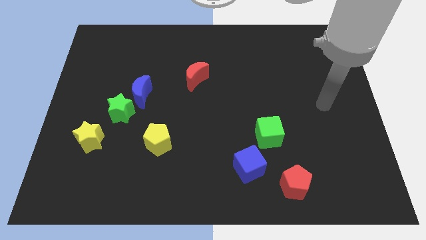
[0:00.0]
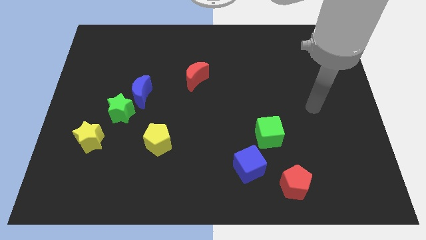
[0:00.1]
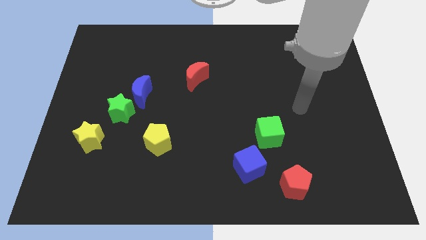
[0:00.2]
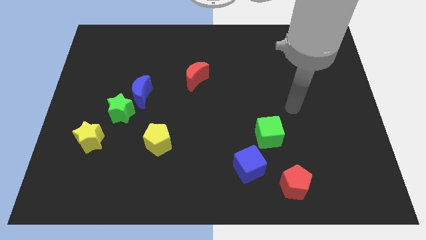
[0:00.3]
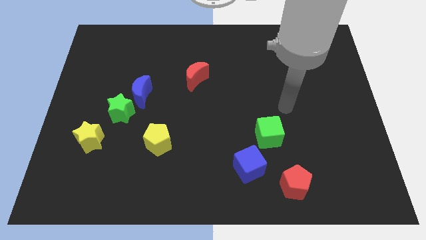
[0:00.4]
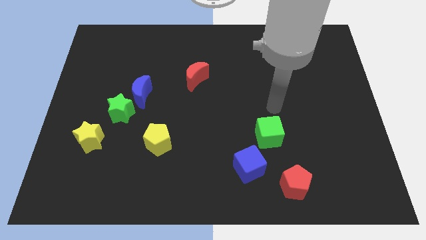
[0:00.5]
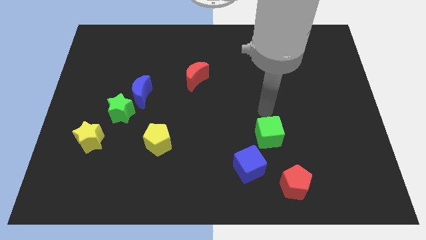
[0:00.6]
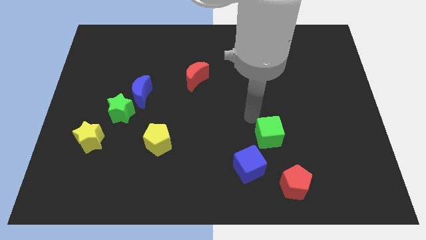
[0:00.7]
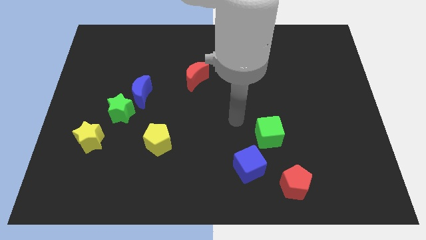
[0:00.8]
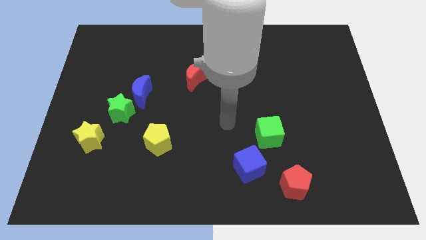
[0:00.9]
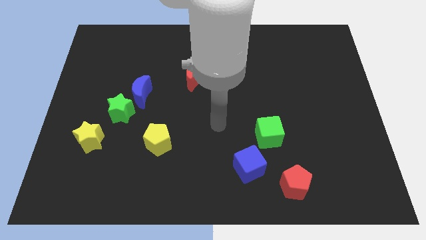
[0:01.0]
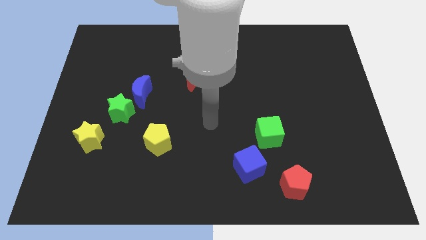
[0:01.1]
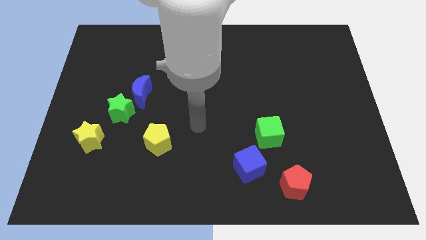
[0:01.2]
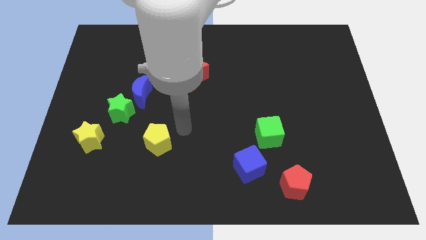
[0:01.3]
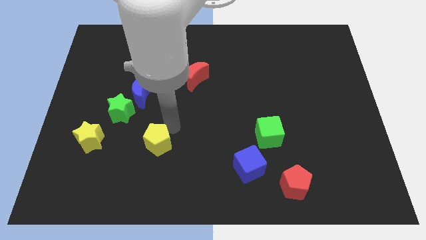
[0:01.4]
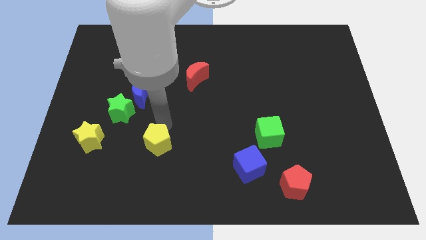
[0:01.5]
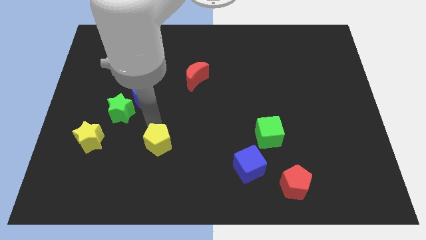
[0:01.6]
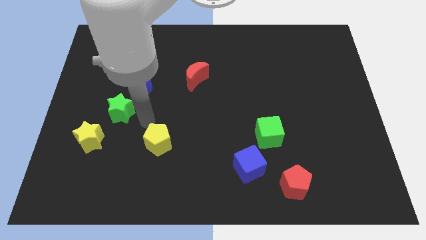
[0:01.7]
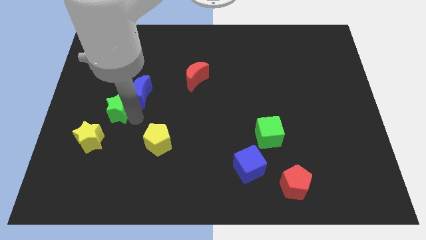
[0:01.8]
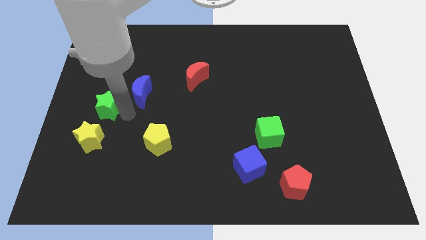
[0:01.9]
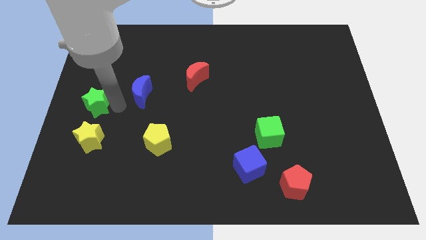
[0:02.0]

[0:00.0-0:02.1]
separate the blue moon from the green star

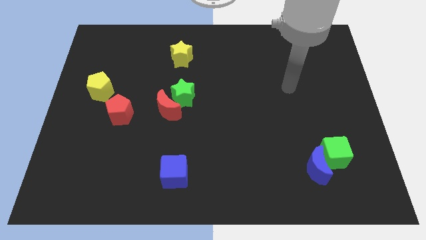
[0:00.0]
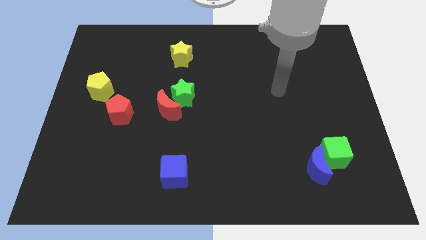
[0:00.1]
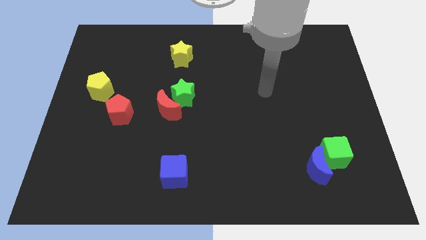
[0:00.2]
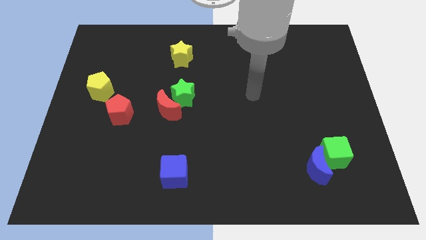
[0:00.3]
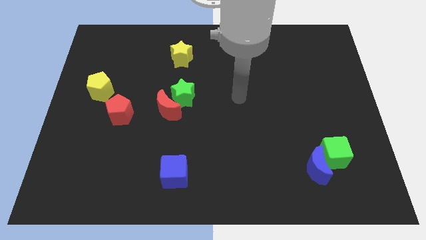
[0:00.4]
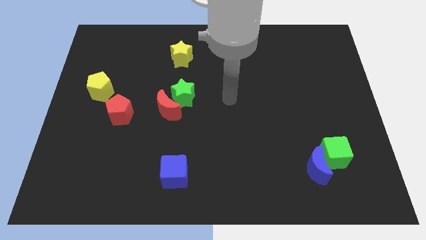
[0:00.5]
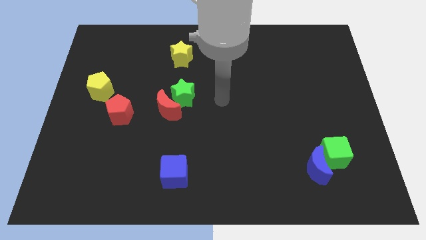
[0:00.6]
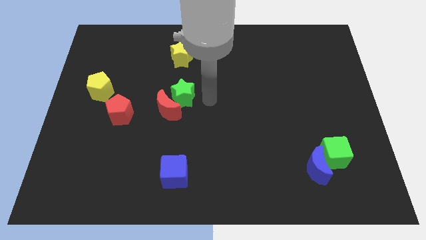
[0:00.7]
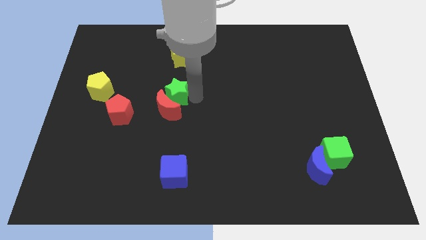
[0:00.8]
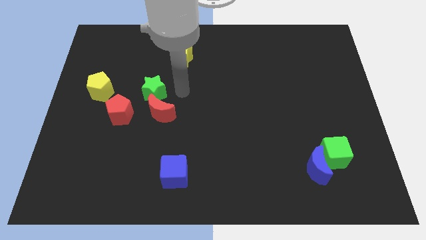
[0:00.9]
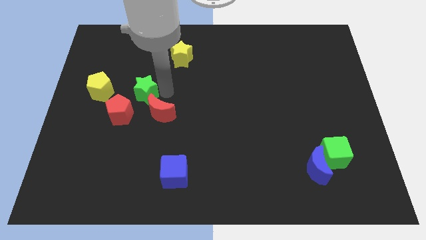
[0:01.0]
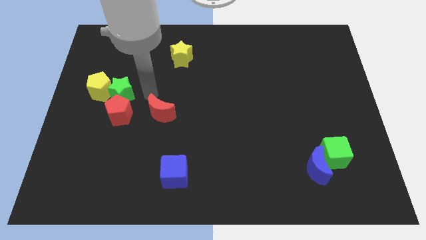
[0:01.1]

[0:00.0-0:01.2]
pull the red moon apart from the green star

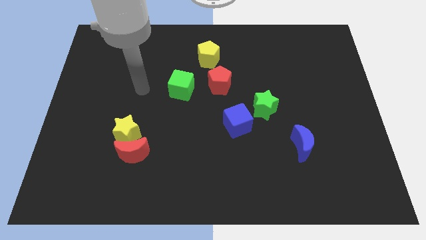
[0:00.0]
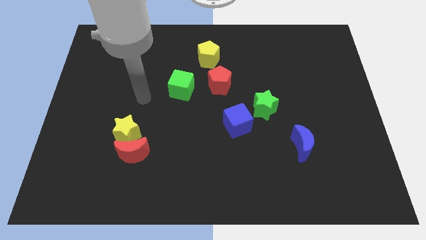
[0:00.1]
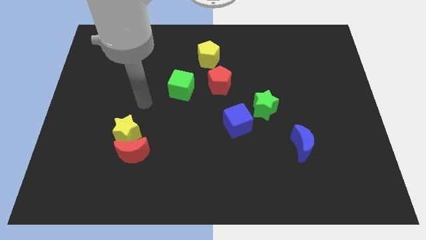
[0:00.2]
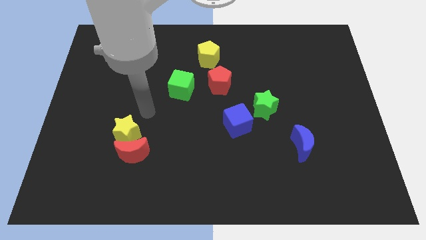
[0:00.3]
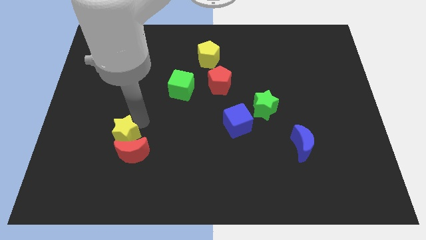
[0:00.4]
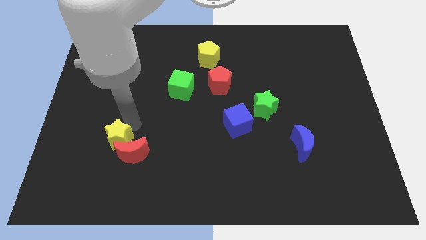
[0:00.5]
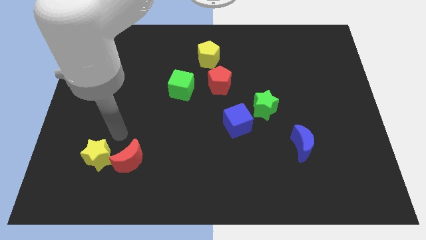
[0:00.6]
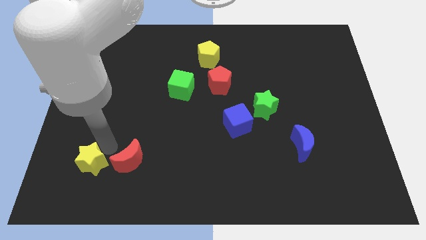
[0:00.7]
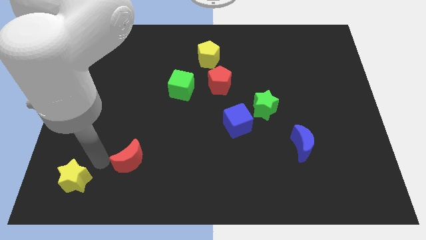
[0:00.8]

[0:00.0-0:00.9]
move the red moon away from the yellow star

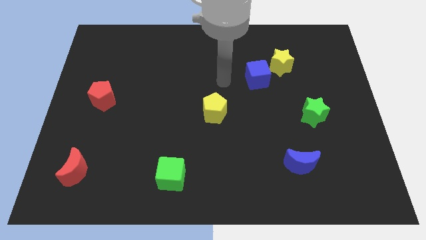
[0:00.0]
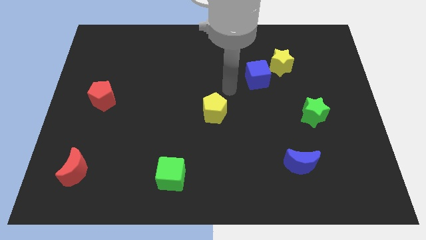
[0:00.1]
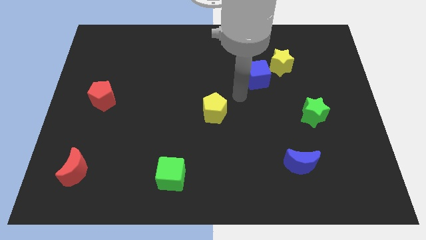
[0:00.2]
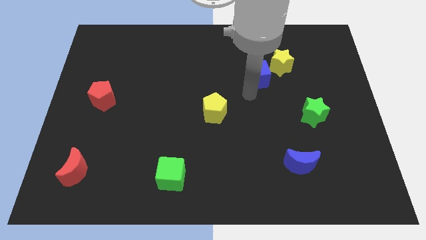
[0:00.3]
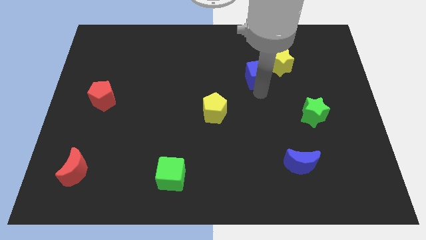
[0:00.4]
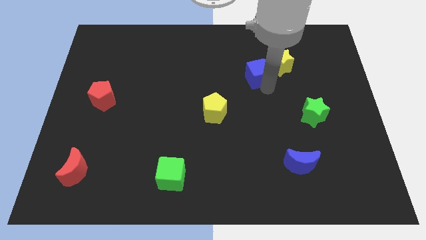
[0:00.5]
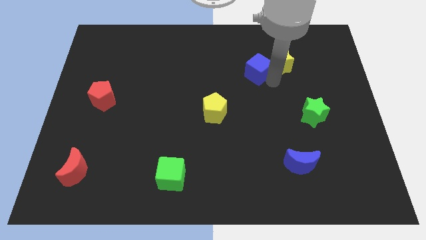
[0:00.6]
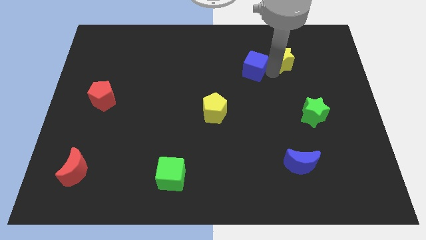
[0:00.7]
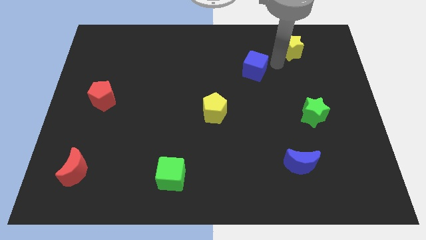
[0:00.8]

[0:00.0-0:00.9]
separate the blue cube from the yellow star

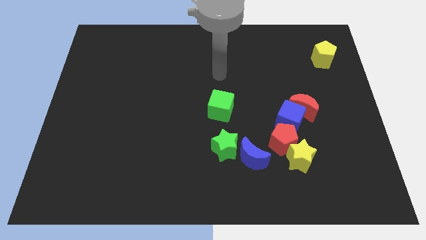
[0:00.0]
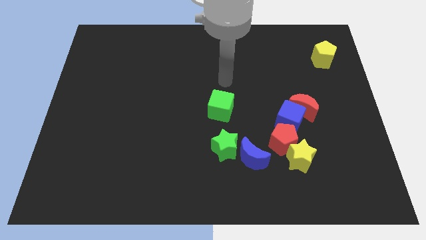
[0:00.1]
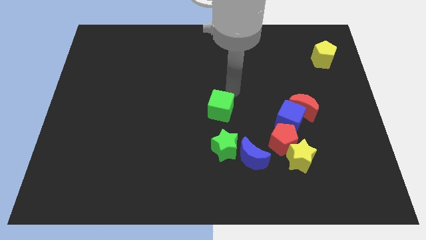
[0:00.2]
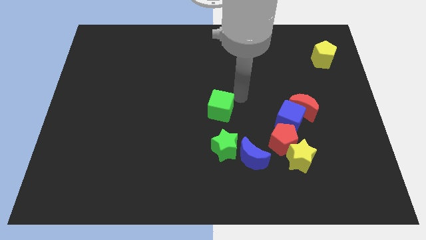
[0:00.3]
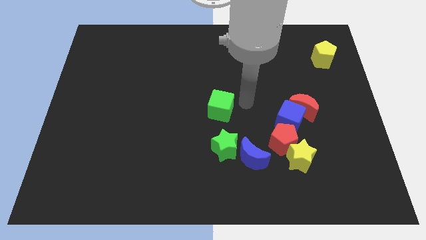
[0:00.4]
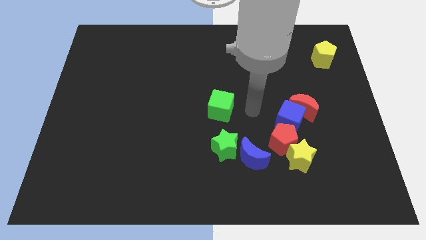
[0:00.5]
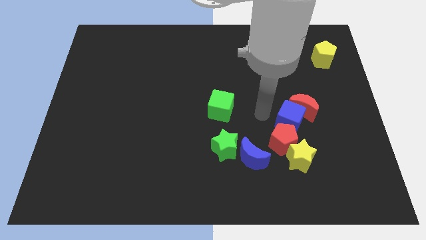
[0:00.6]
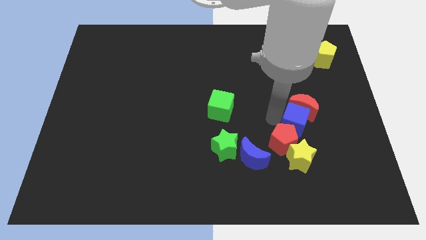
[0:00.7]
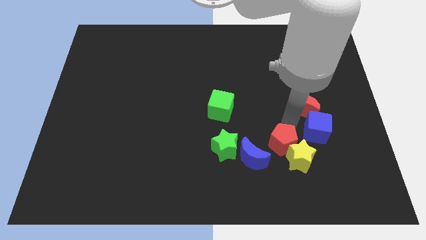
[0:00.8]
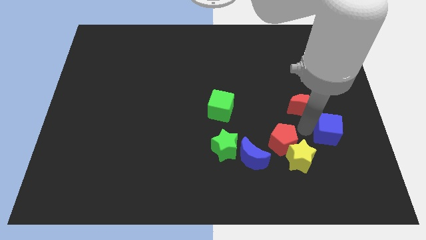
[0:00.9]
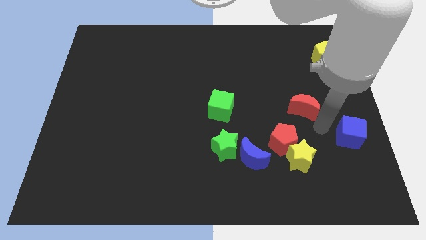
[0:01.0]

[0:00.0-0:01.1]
separate the red moon from the blue cube

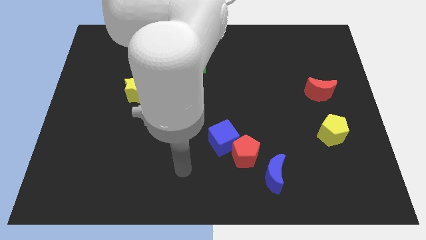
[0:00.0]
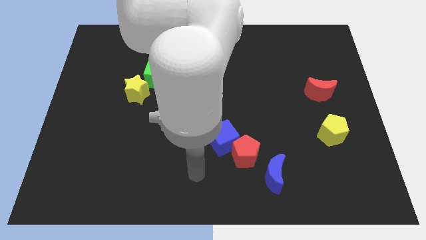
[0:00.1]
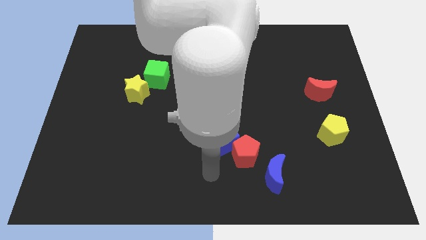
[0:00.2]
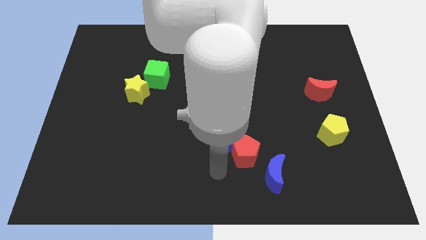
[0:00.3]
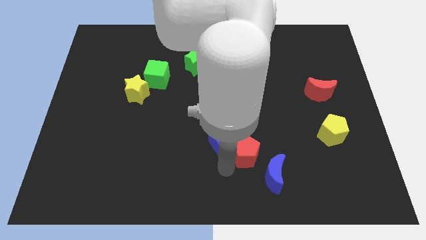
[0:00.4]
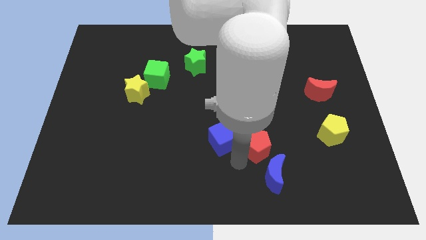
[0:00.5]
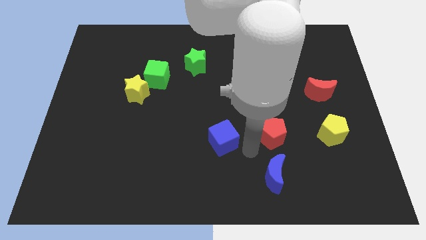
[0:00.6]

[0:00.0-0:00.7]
move the blue cube away from the red pentagon

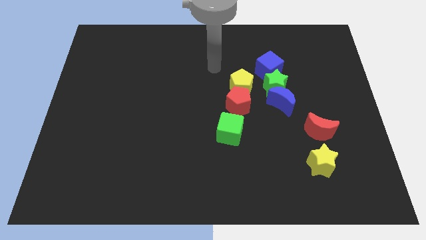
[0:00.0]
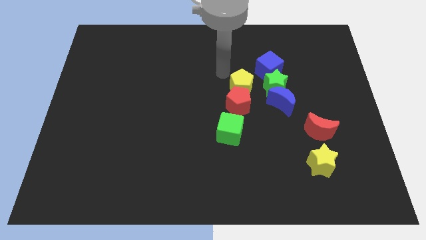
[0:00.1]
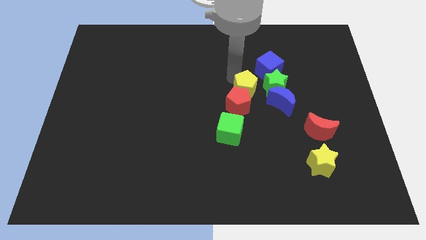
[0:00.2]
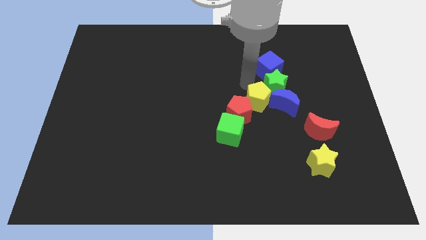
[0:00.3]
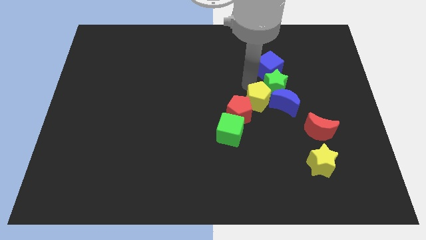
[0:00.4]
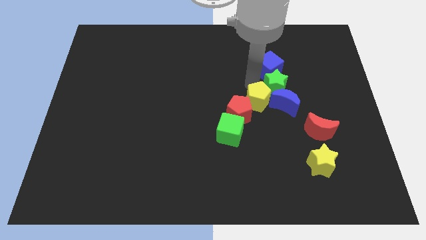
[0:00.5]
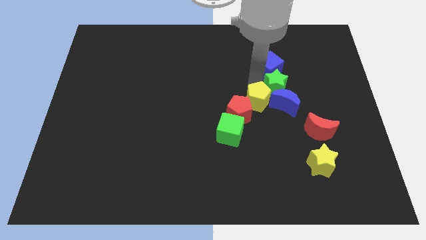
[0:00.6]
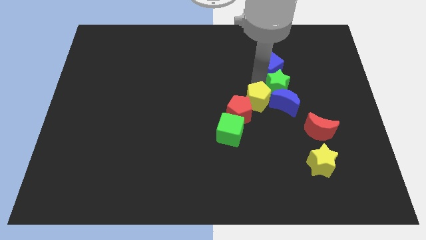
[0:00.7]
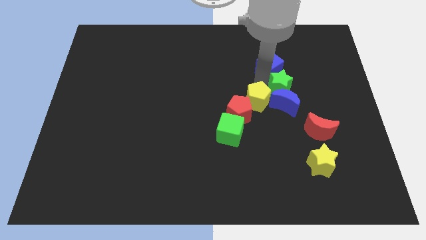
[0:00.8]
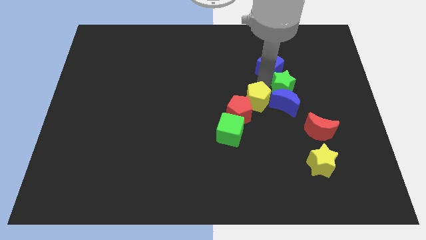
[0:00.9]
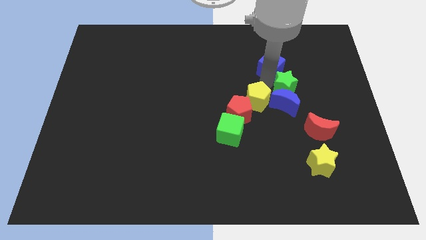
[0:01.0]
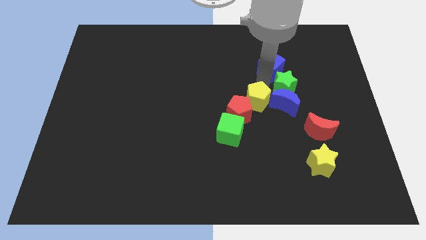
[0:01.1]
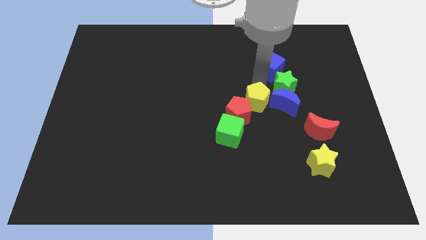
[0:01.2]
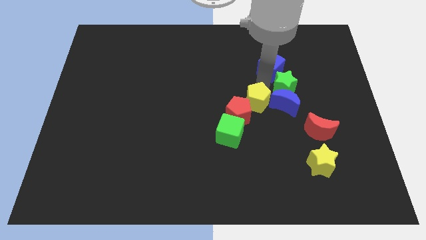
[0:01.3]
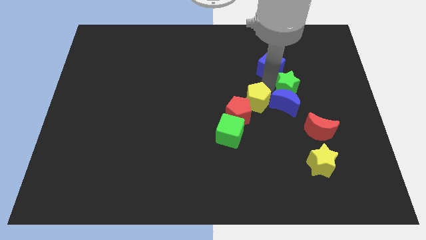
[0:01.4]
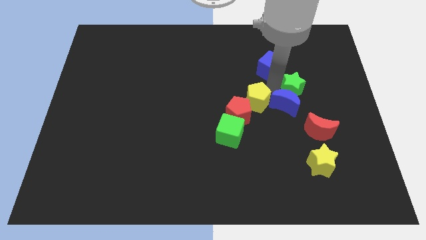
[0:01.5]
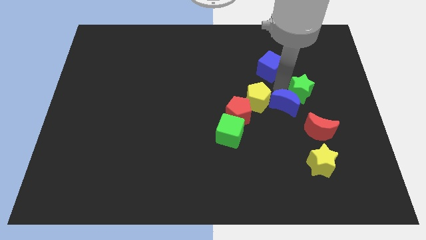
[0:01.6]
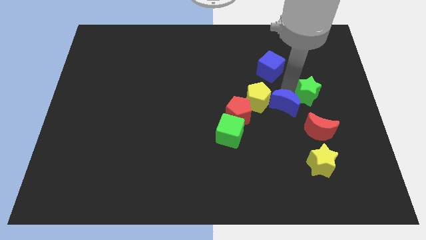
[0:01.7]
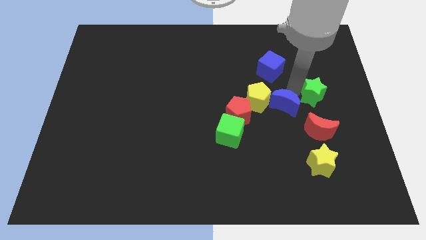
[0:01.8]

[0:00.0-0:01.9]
separate the green star from the blue moon, blue cube, and yellow pentagon

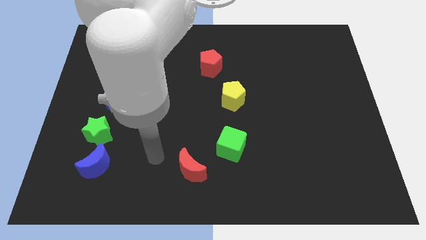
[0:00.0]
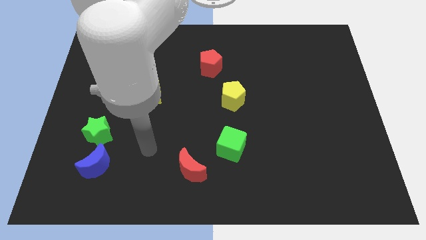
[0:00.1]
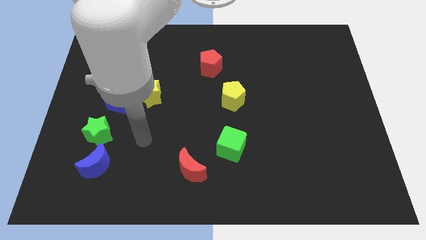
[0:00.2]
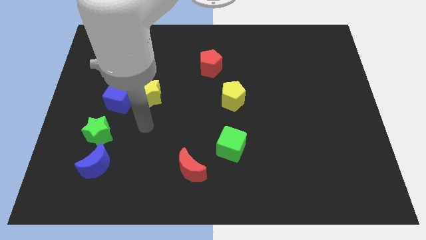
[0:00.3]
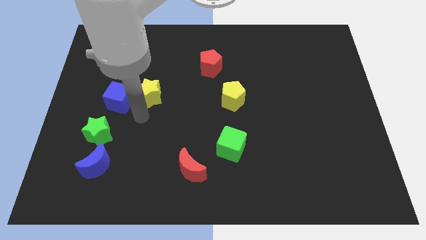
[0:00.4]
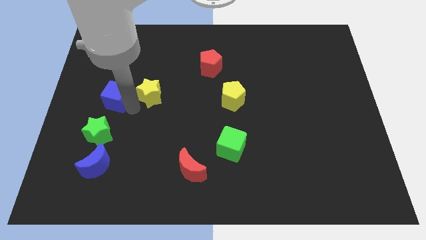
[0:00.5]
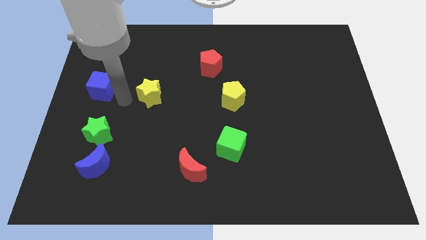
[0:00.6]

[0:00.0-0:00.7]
pull the yellow star apart from the blue cube
